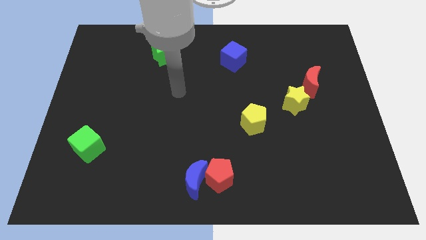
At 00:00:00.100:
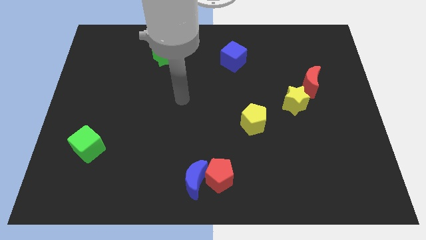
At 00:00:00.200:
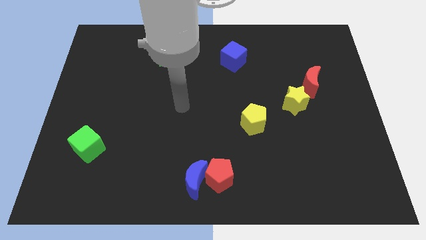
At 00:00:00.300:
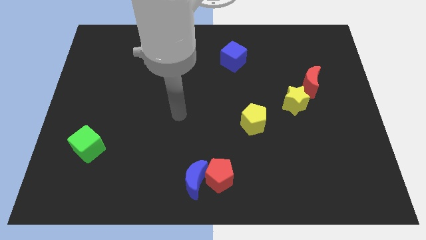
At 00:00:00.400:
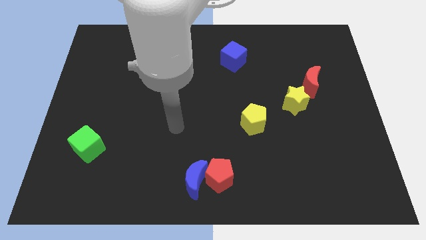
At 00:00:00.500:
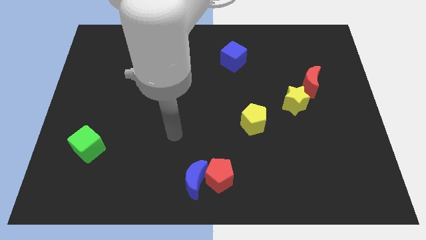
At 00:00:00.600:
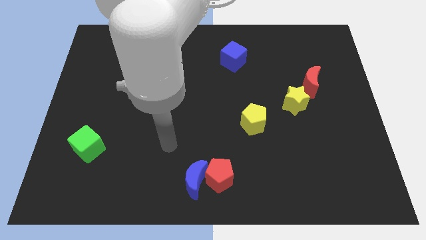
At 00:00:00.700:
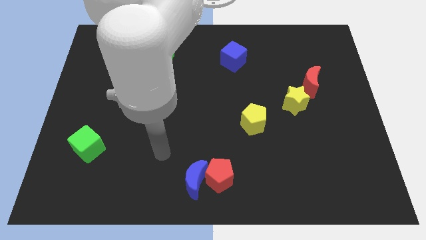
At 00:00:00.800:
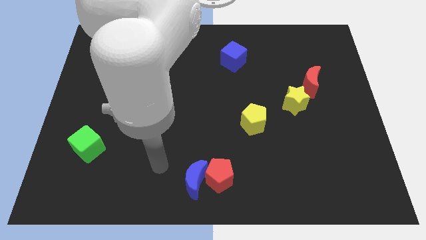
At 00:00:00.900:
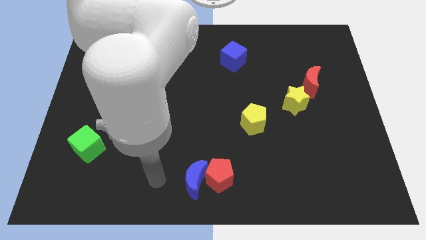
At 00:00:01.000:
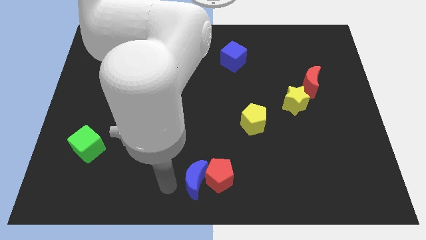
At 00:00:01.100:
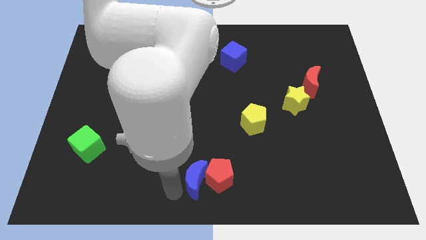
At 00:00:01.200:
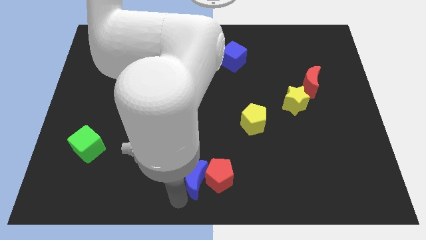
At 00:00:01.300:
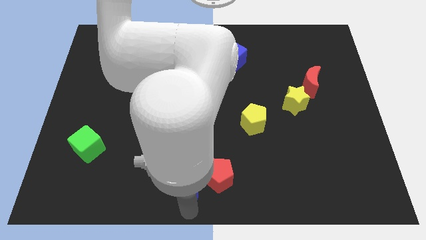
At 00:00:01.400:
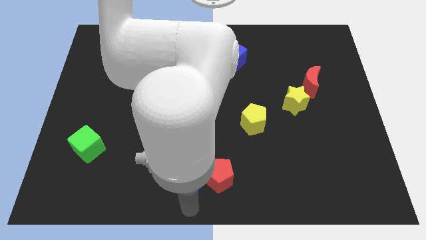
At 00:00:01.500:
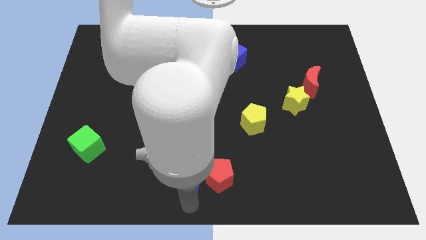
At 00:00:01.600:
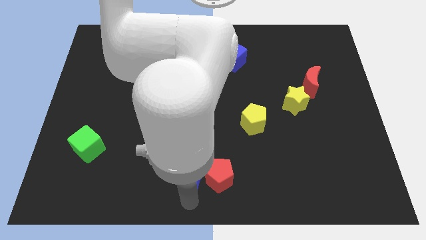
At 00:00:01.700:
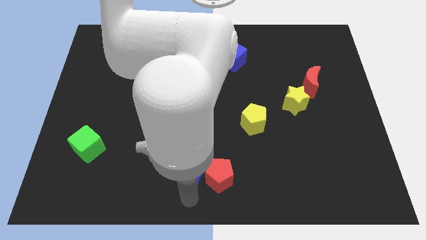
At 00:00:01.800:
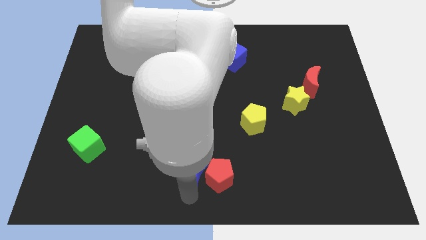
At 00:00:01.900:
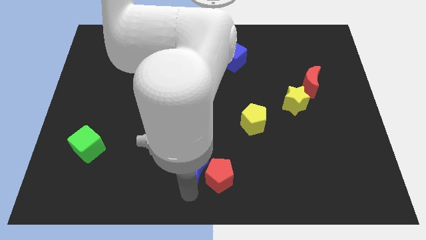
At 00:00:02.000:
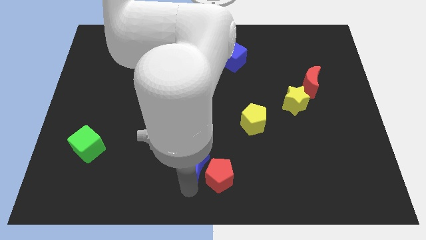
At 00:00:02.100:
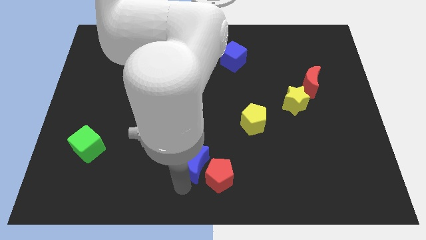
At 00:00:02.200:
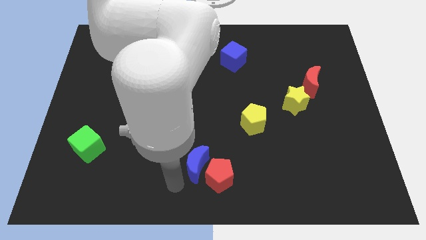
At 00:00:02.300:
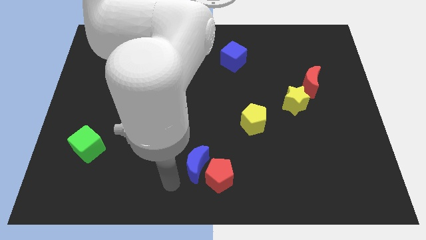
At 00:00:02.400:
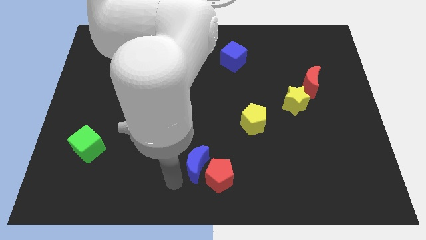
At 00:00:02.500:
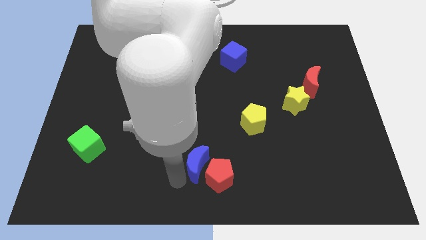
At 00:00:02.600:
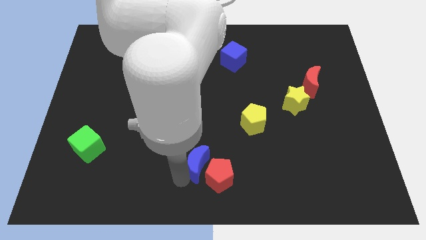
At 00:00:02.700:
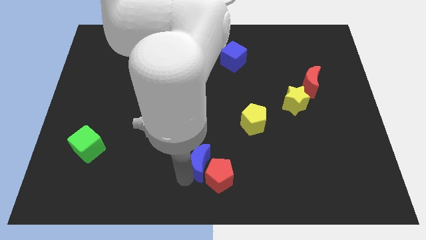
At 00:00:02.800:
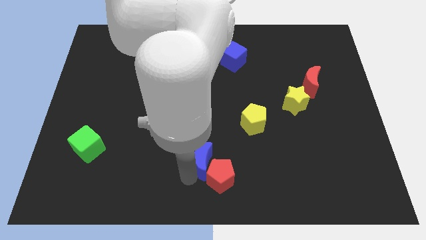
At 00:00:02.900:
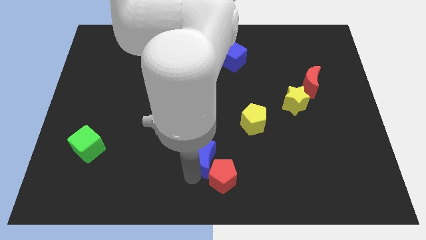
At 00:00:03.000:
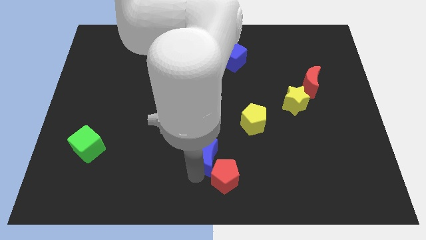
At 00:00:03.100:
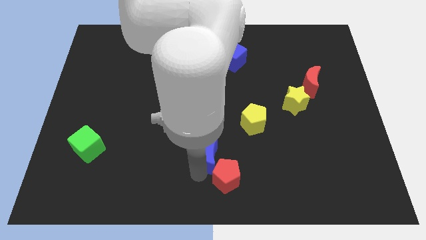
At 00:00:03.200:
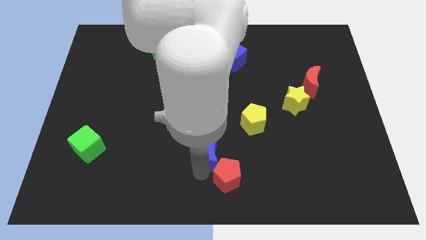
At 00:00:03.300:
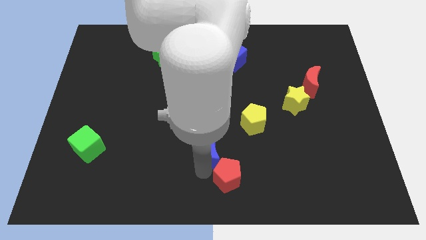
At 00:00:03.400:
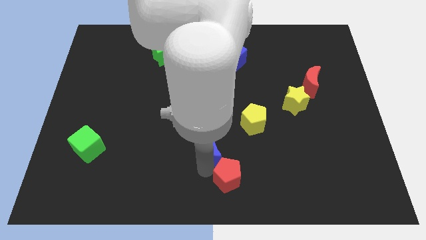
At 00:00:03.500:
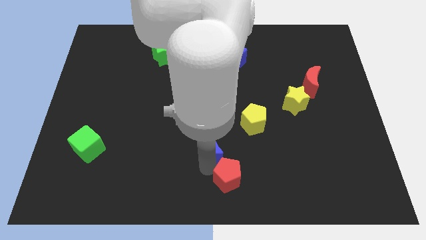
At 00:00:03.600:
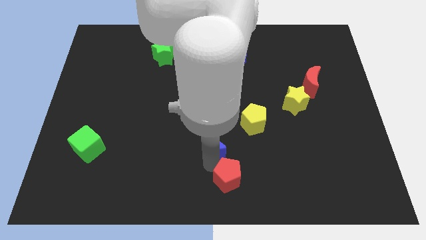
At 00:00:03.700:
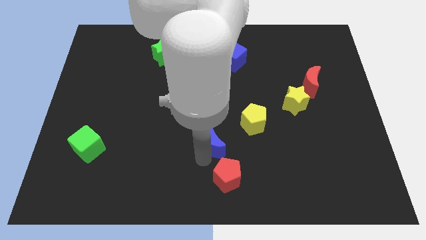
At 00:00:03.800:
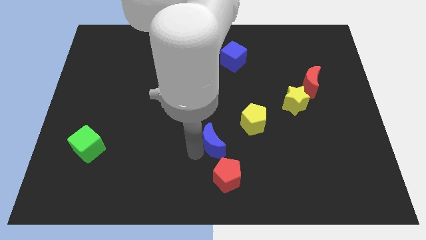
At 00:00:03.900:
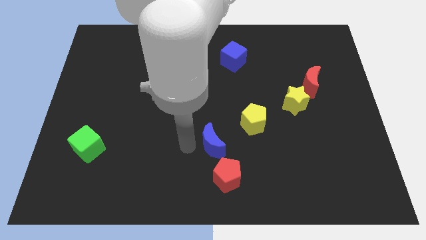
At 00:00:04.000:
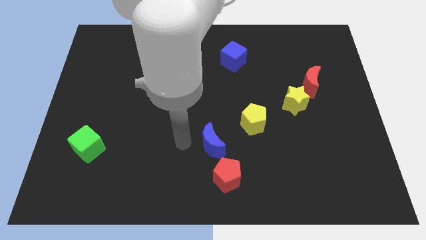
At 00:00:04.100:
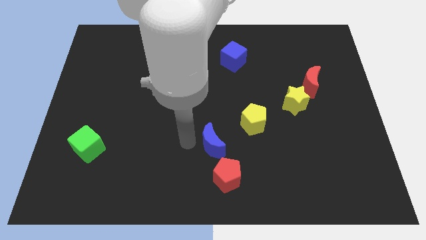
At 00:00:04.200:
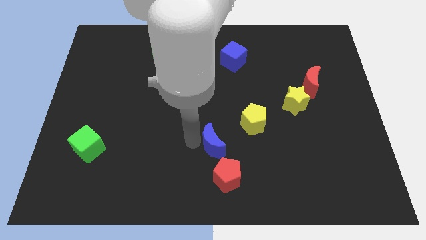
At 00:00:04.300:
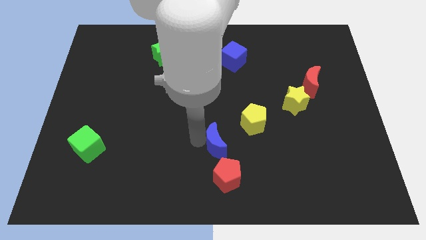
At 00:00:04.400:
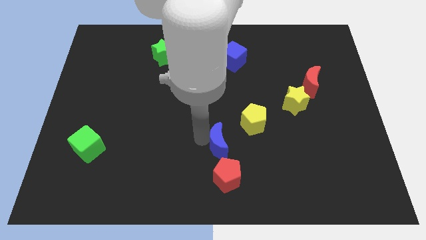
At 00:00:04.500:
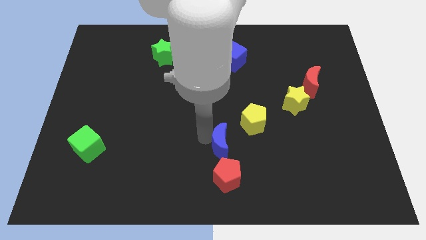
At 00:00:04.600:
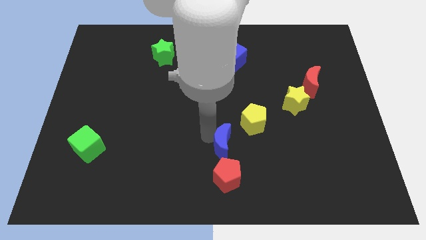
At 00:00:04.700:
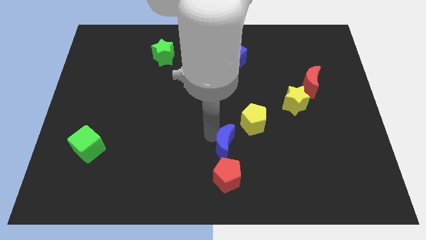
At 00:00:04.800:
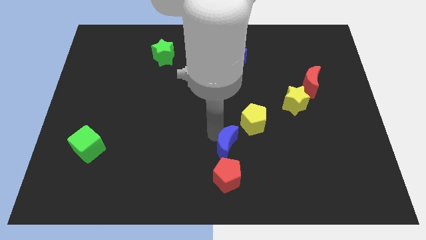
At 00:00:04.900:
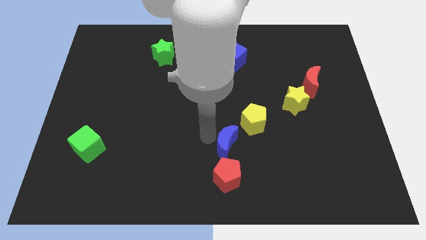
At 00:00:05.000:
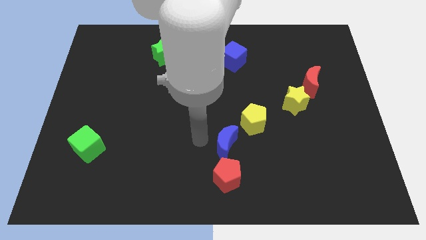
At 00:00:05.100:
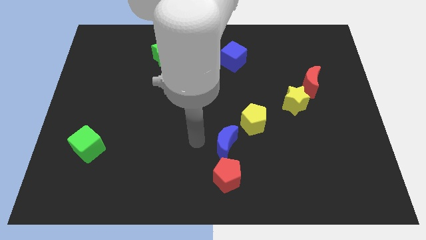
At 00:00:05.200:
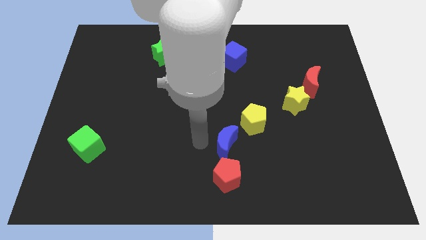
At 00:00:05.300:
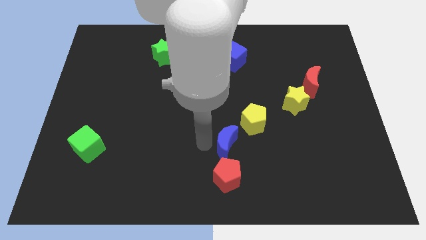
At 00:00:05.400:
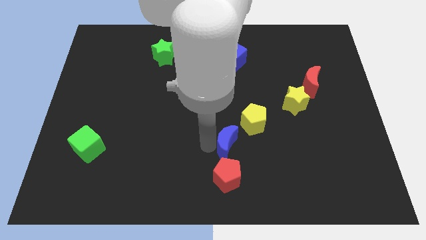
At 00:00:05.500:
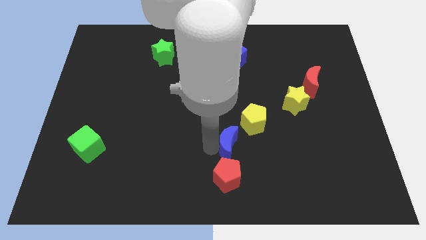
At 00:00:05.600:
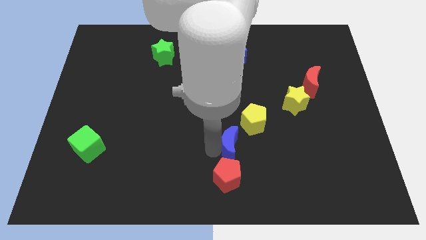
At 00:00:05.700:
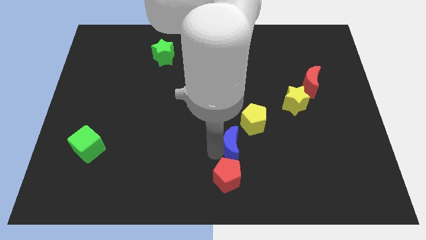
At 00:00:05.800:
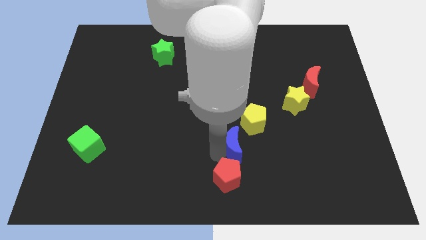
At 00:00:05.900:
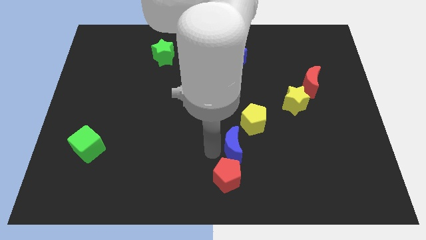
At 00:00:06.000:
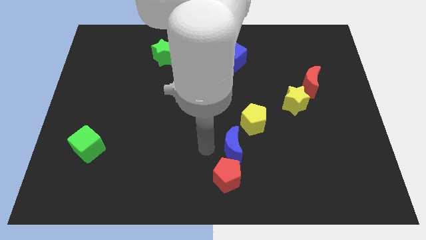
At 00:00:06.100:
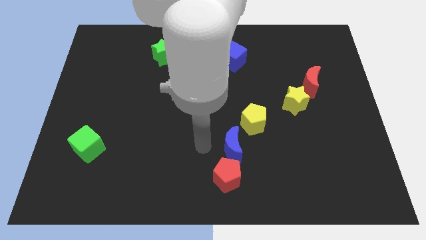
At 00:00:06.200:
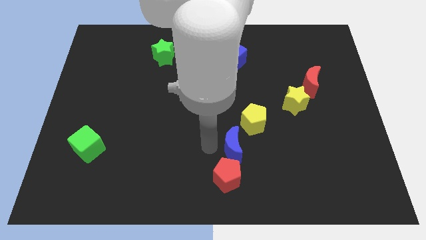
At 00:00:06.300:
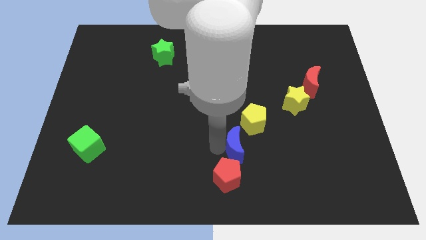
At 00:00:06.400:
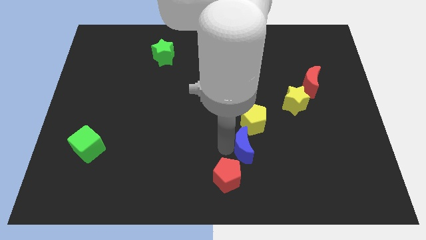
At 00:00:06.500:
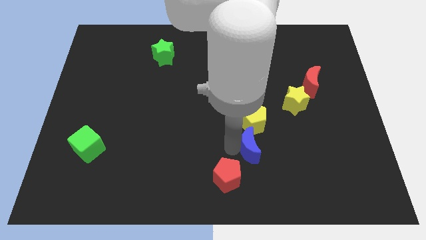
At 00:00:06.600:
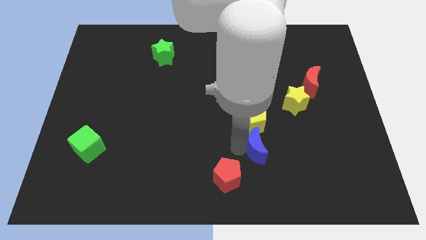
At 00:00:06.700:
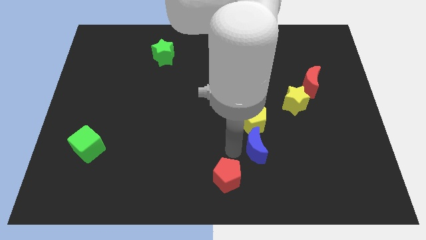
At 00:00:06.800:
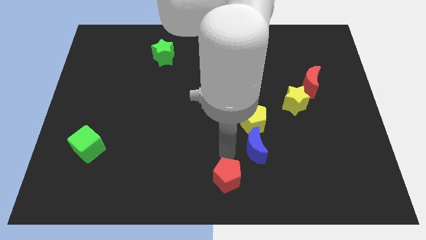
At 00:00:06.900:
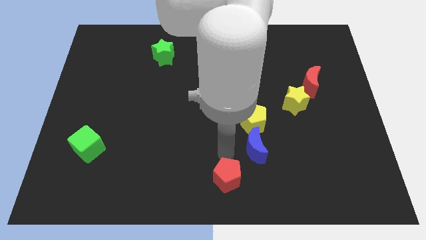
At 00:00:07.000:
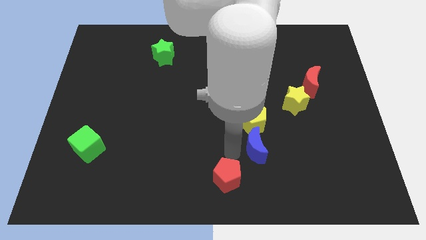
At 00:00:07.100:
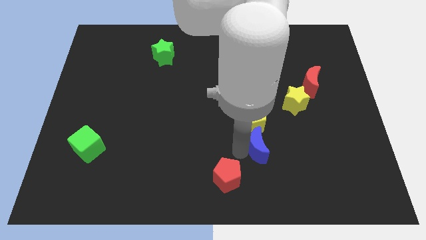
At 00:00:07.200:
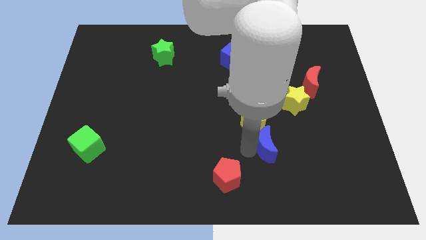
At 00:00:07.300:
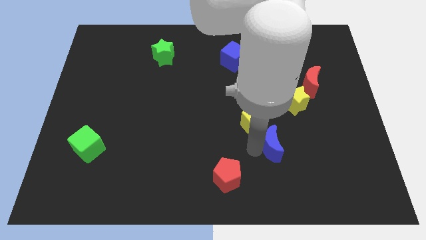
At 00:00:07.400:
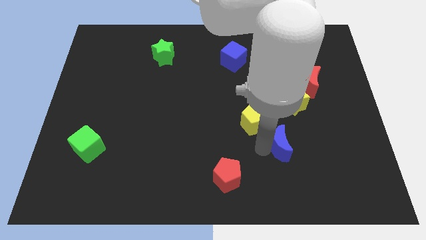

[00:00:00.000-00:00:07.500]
move the blue moon to the bottom side of the yellow star
